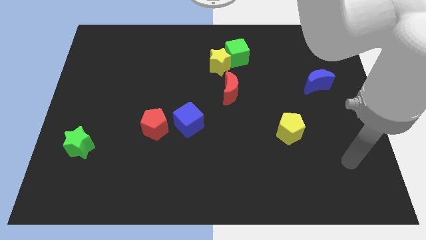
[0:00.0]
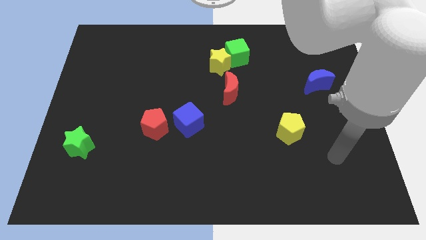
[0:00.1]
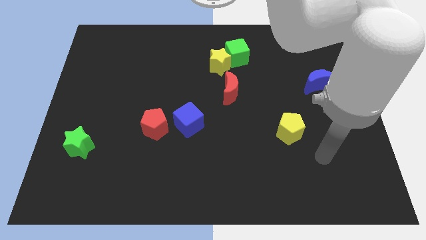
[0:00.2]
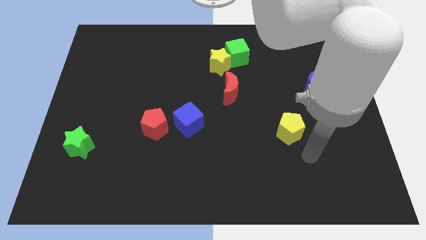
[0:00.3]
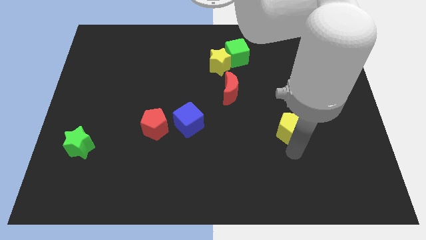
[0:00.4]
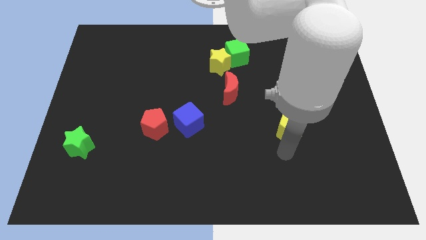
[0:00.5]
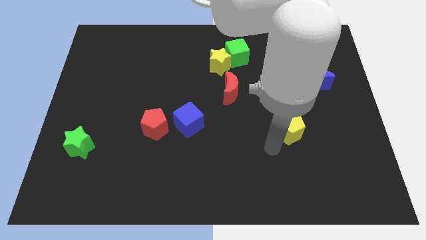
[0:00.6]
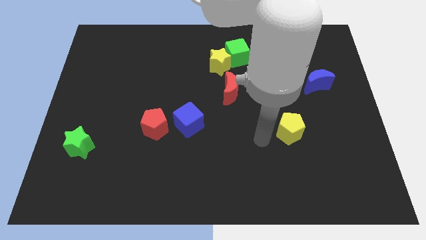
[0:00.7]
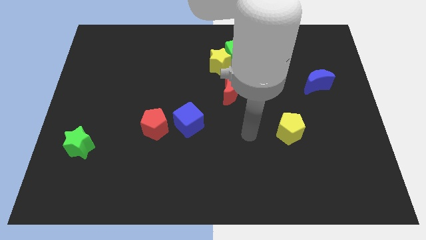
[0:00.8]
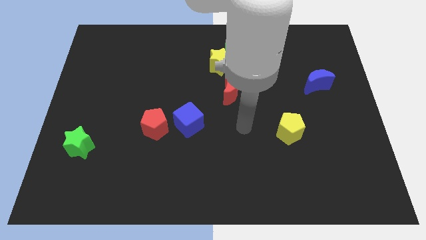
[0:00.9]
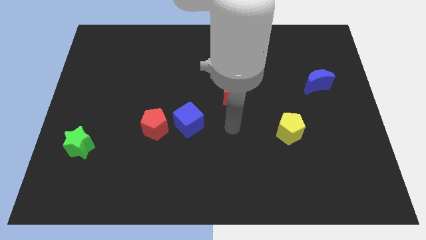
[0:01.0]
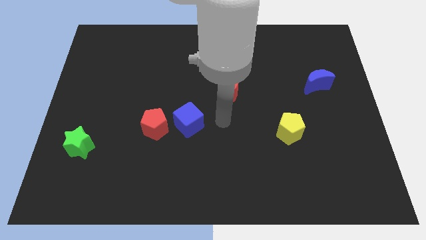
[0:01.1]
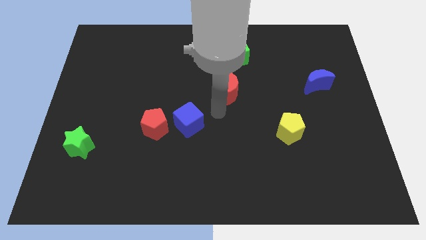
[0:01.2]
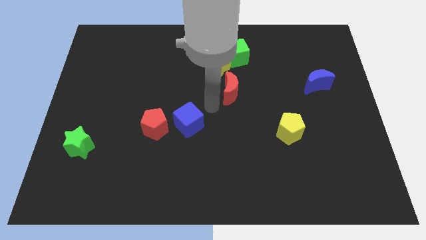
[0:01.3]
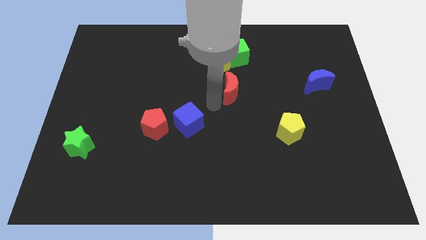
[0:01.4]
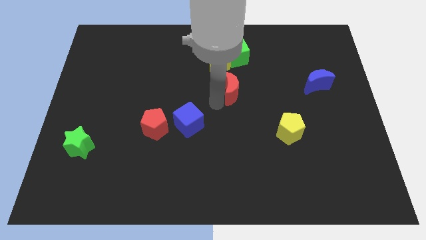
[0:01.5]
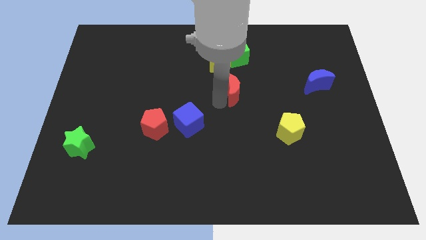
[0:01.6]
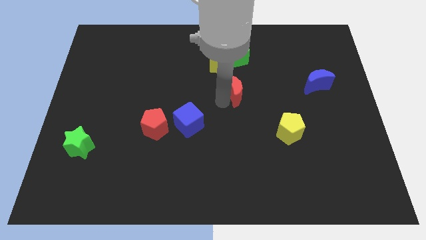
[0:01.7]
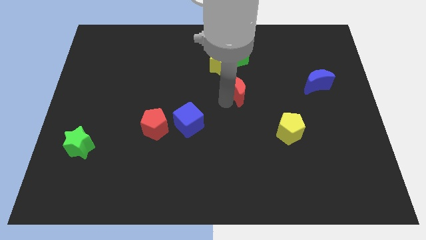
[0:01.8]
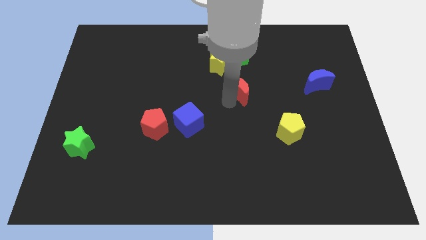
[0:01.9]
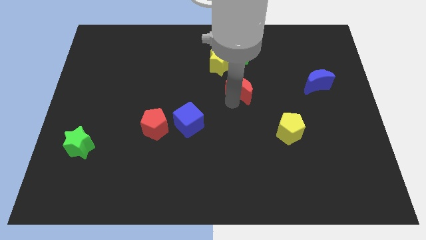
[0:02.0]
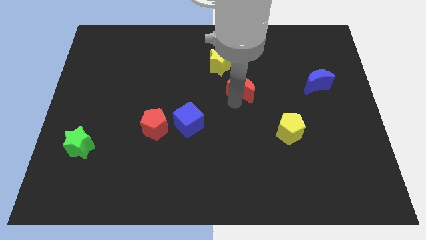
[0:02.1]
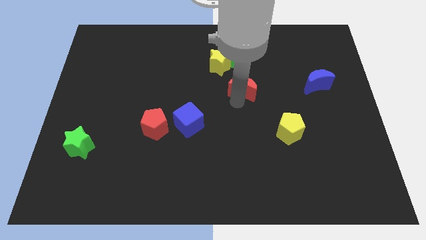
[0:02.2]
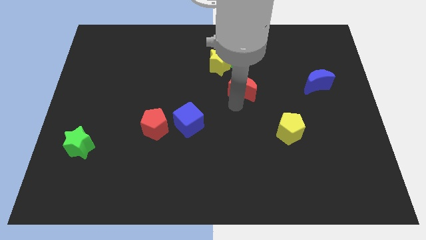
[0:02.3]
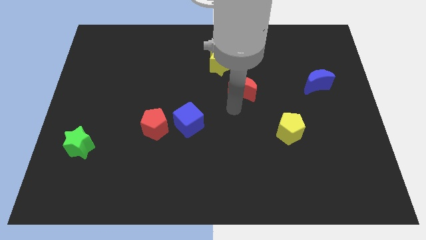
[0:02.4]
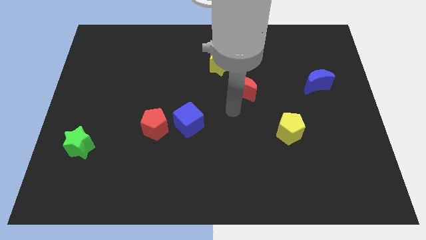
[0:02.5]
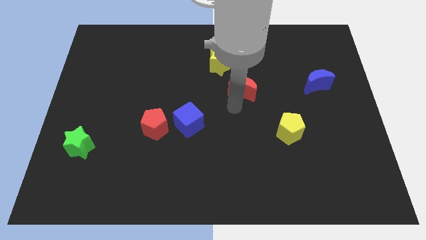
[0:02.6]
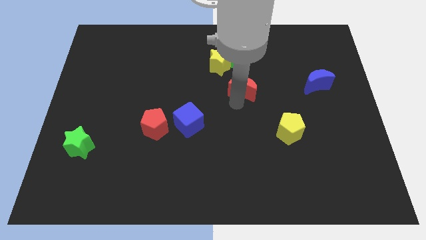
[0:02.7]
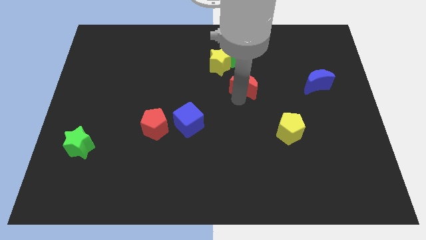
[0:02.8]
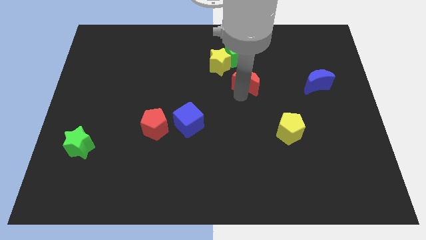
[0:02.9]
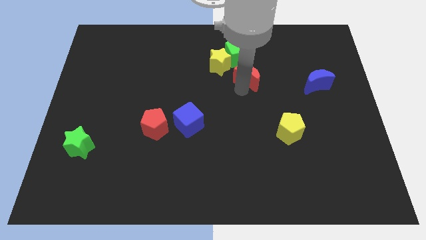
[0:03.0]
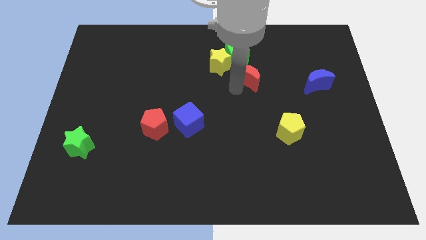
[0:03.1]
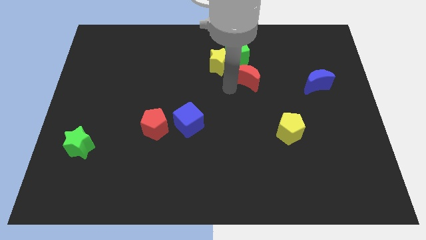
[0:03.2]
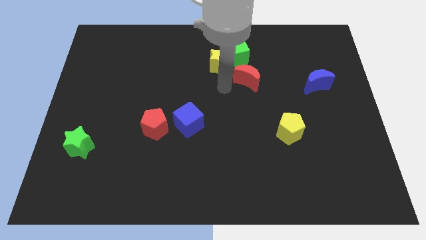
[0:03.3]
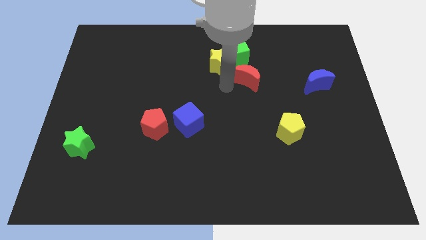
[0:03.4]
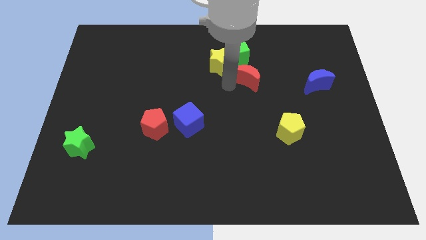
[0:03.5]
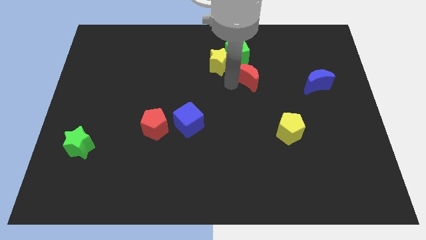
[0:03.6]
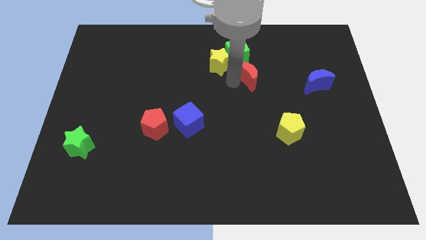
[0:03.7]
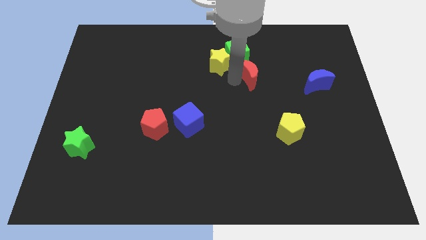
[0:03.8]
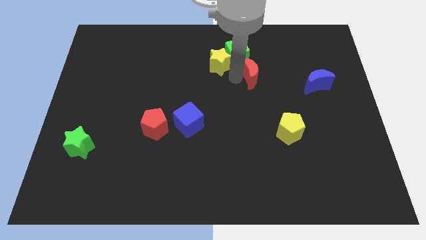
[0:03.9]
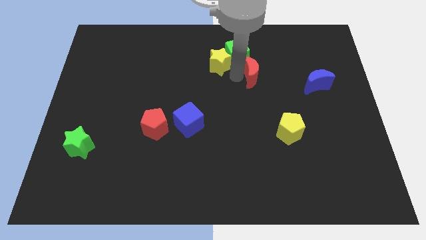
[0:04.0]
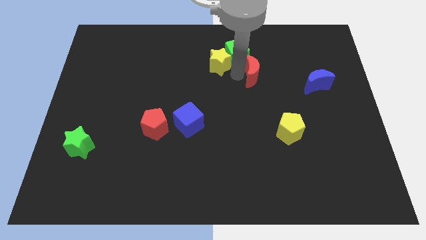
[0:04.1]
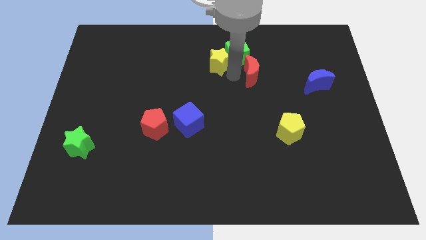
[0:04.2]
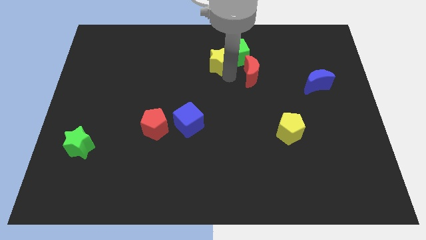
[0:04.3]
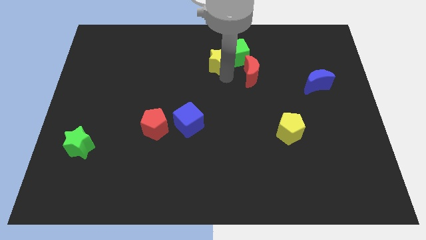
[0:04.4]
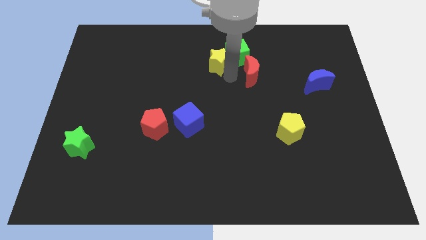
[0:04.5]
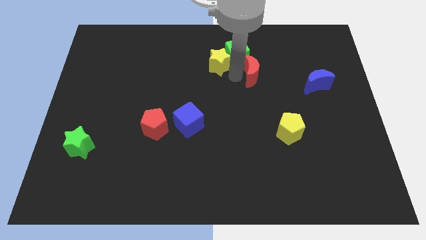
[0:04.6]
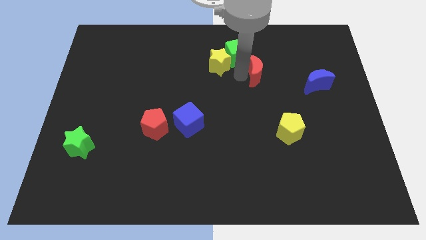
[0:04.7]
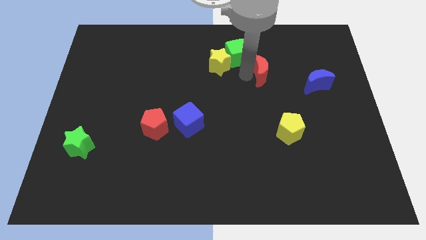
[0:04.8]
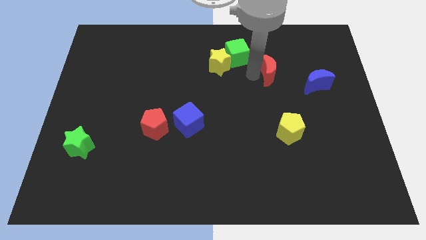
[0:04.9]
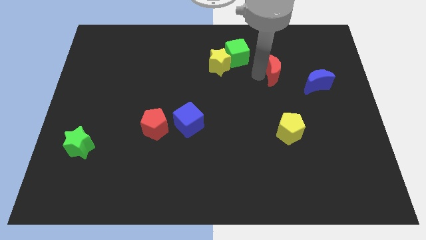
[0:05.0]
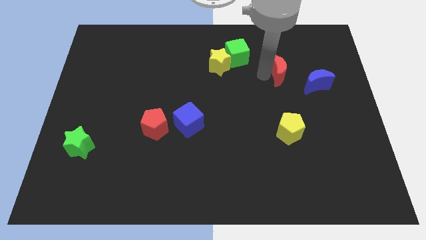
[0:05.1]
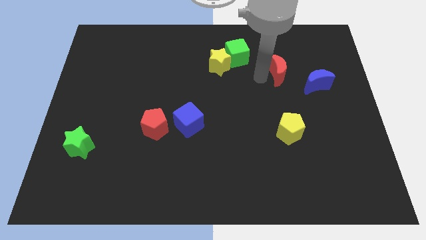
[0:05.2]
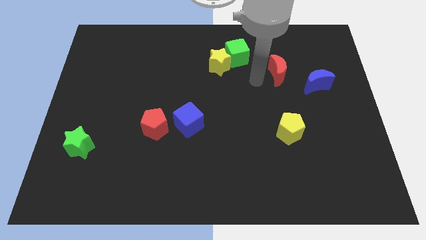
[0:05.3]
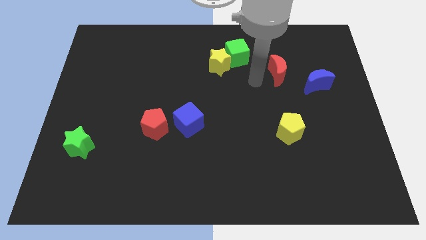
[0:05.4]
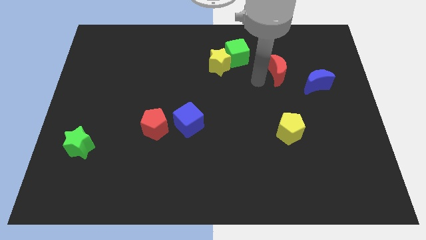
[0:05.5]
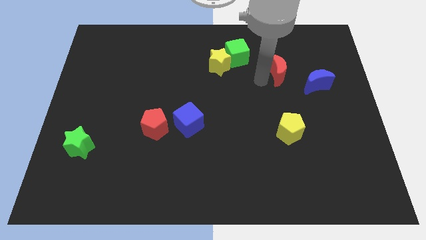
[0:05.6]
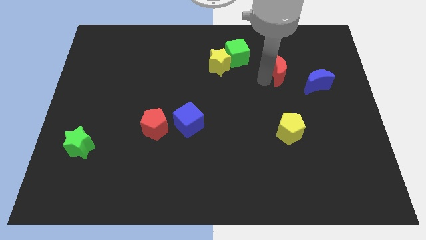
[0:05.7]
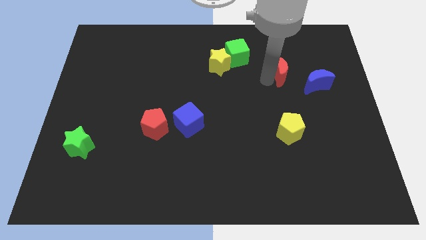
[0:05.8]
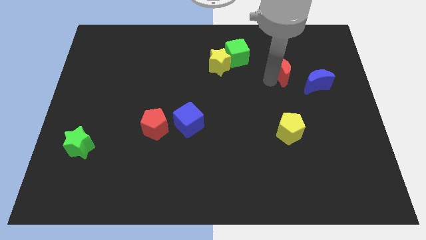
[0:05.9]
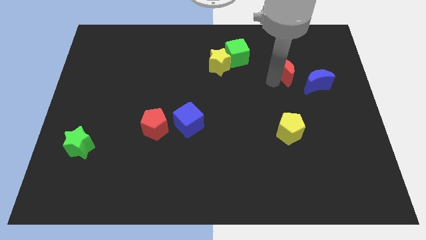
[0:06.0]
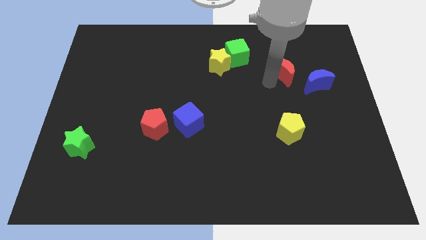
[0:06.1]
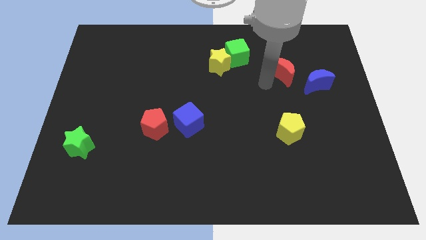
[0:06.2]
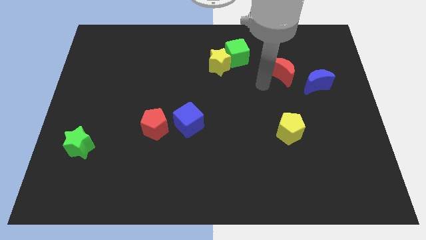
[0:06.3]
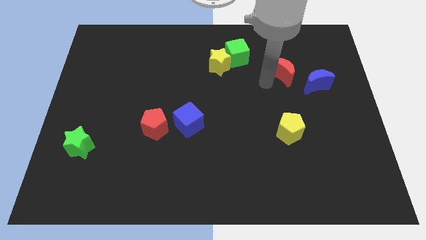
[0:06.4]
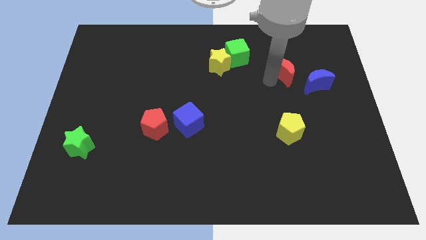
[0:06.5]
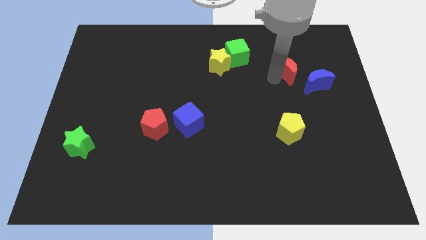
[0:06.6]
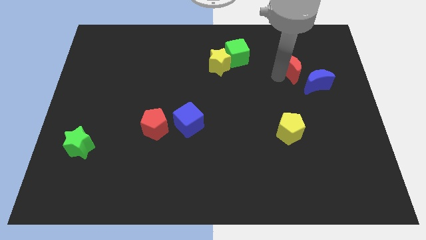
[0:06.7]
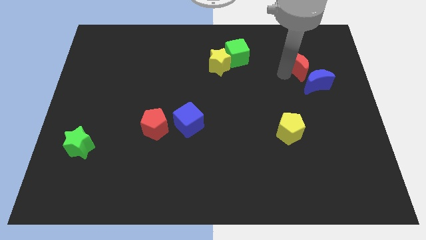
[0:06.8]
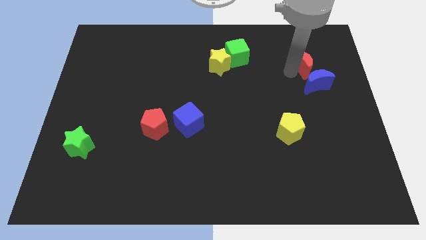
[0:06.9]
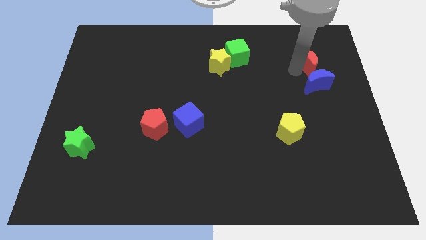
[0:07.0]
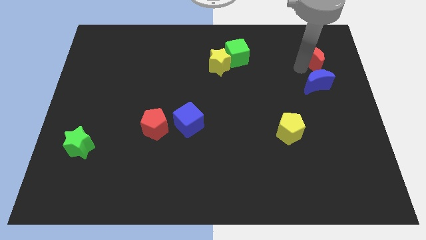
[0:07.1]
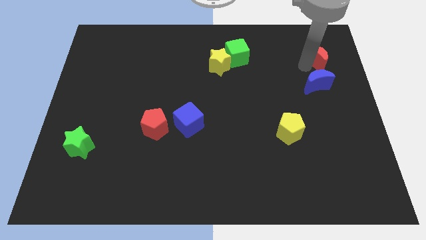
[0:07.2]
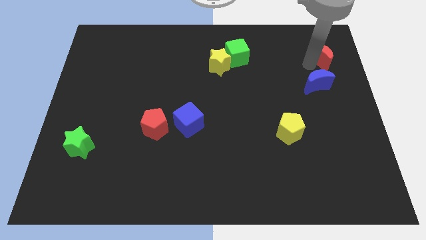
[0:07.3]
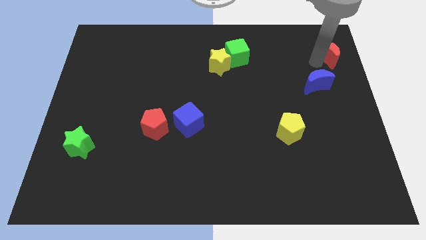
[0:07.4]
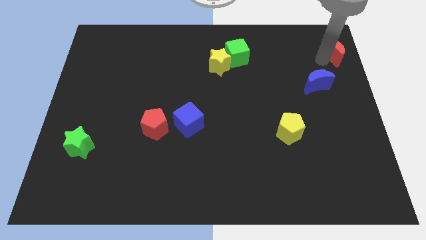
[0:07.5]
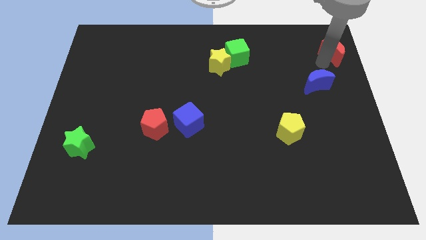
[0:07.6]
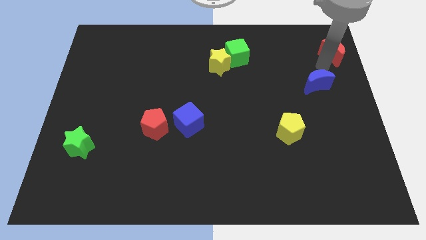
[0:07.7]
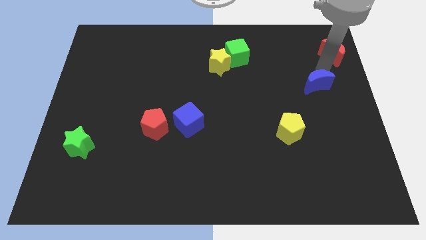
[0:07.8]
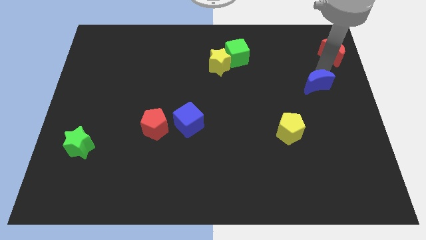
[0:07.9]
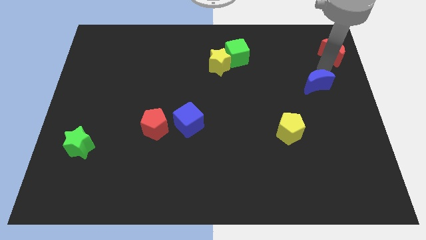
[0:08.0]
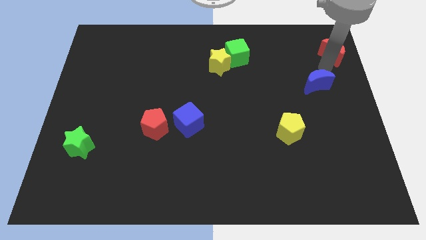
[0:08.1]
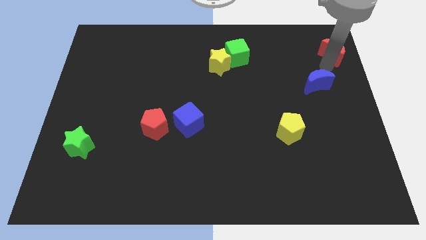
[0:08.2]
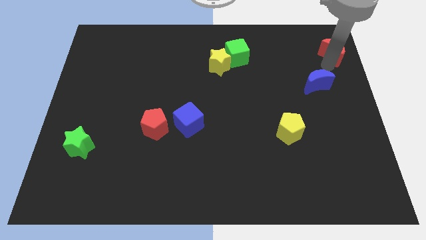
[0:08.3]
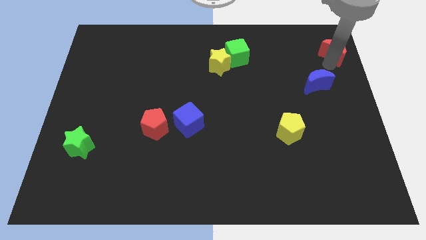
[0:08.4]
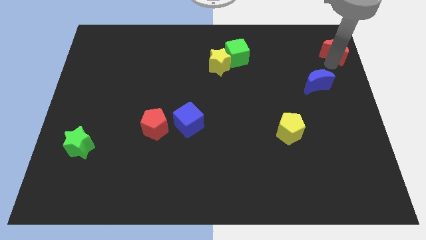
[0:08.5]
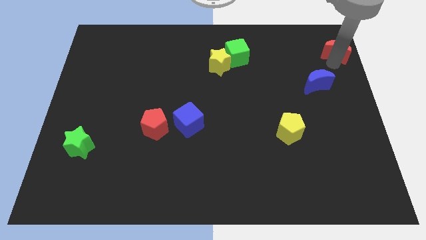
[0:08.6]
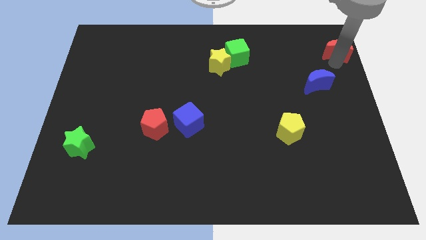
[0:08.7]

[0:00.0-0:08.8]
slide the red moon to the top right
